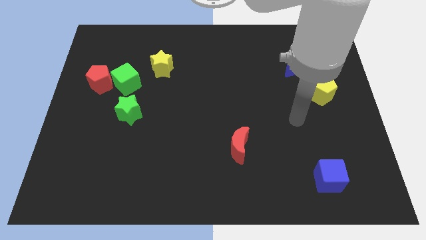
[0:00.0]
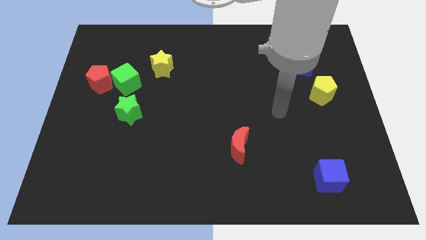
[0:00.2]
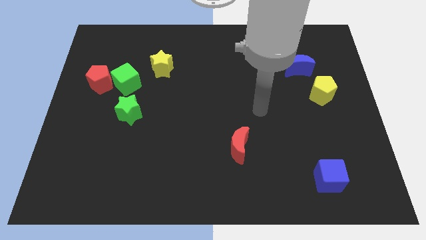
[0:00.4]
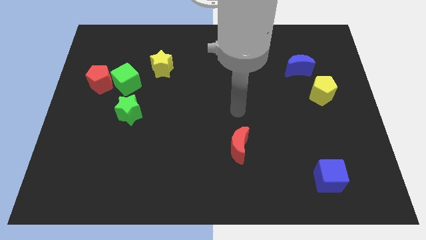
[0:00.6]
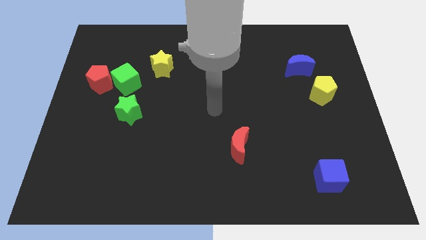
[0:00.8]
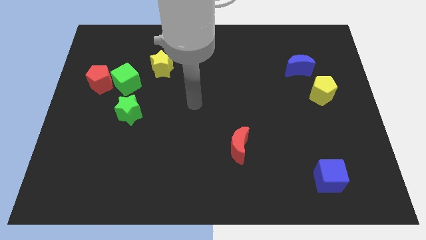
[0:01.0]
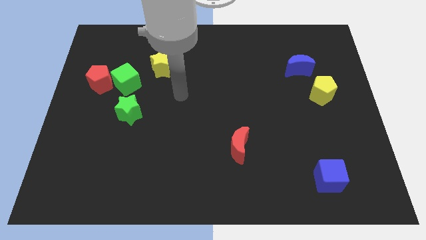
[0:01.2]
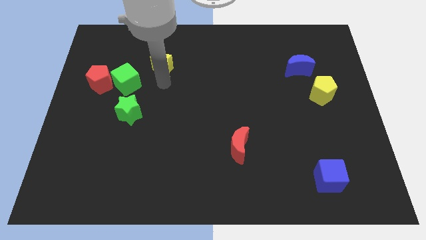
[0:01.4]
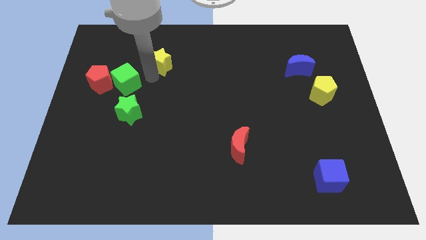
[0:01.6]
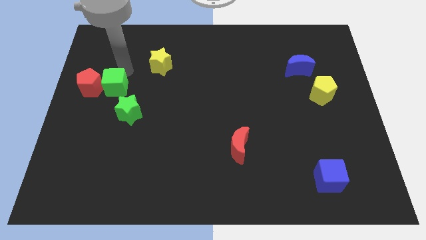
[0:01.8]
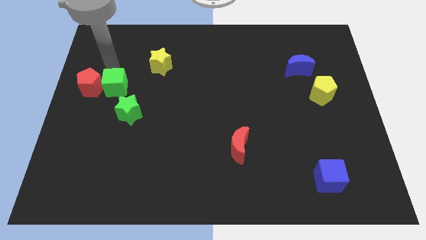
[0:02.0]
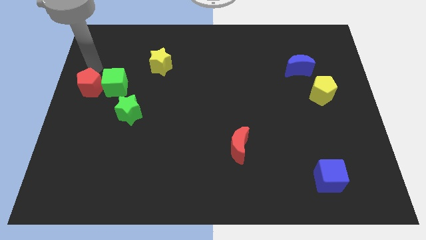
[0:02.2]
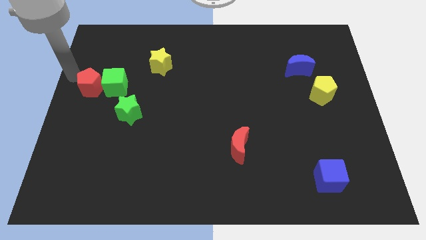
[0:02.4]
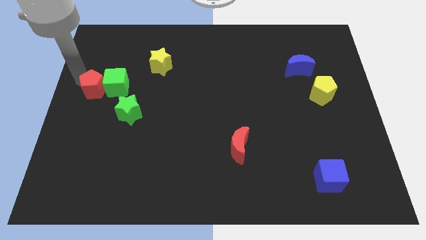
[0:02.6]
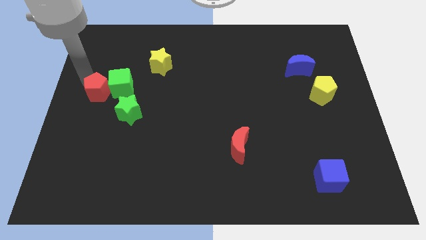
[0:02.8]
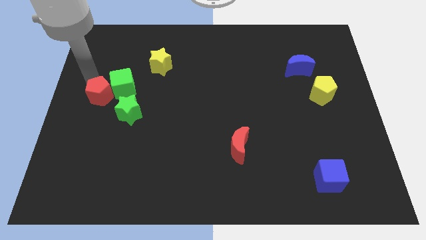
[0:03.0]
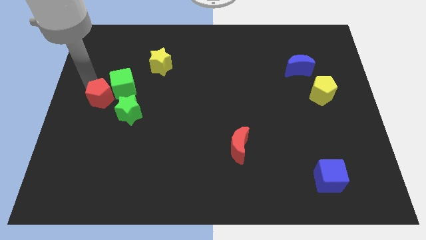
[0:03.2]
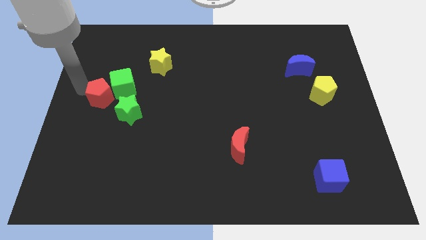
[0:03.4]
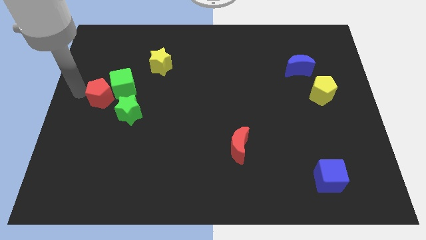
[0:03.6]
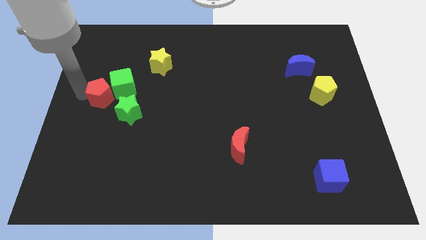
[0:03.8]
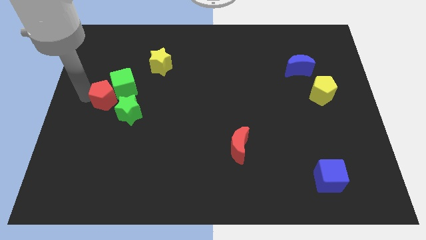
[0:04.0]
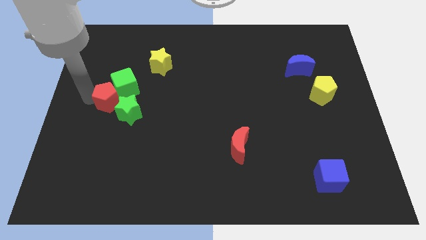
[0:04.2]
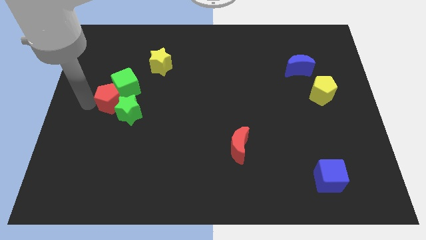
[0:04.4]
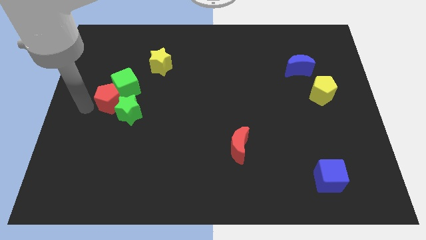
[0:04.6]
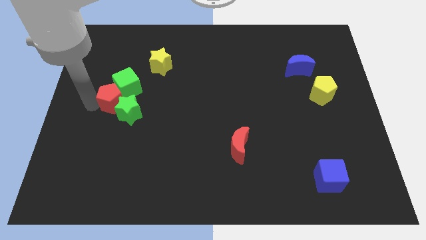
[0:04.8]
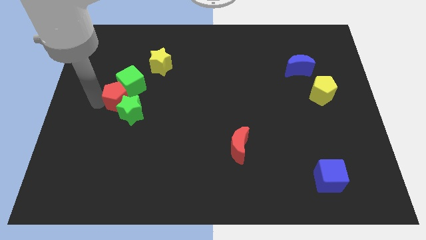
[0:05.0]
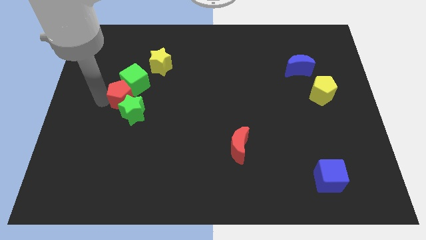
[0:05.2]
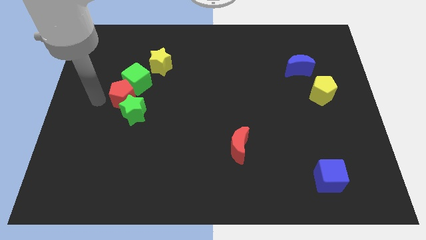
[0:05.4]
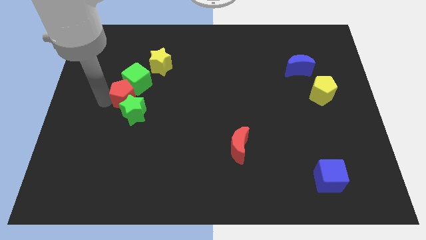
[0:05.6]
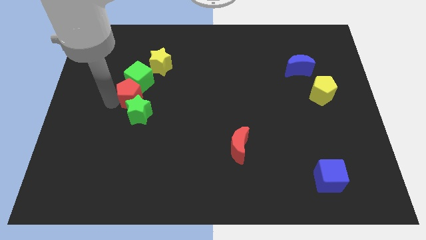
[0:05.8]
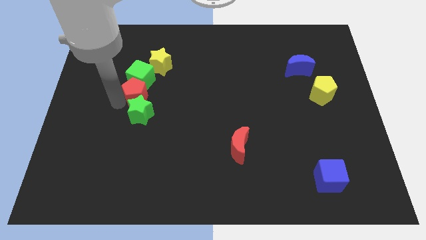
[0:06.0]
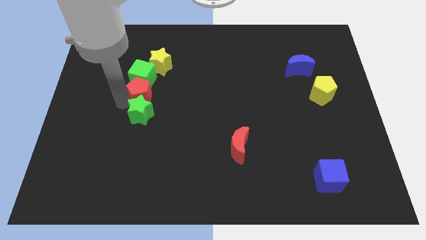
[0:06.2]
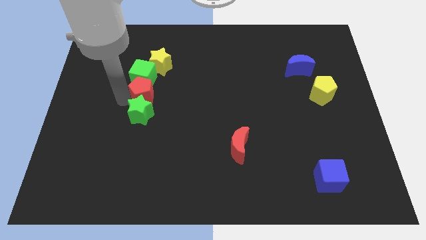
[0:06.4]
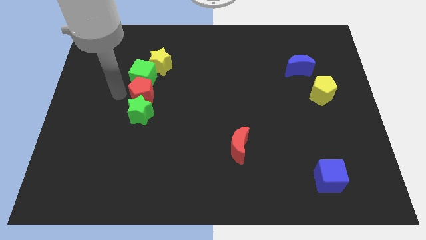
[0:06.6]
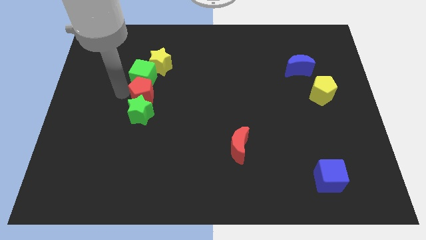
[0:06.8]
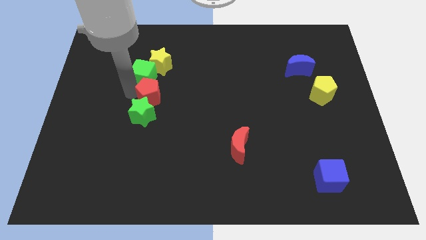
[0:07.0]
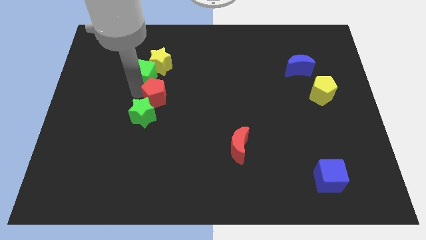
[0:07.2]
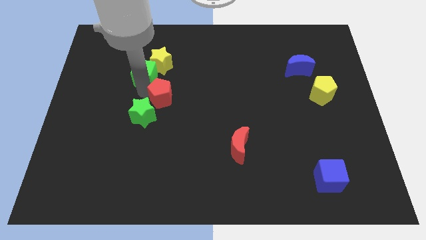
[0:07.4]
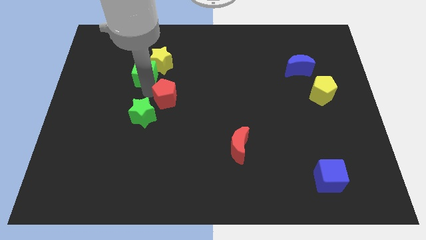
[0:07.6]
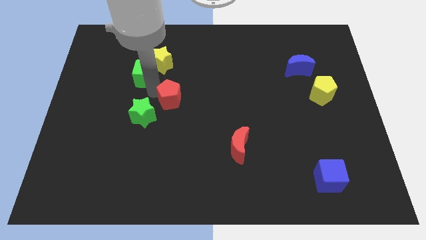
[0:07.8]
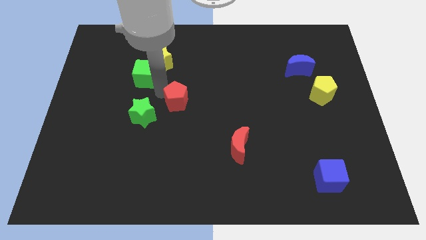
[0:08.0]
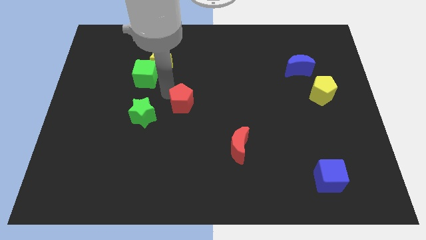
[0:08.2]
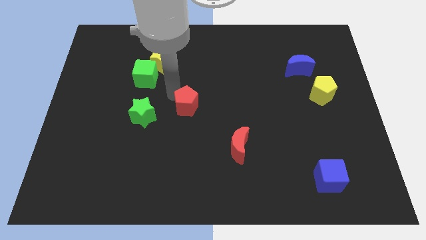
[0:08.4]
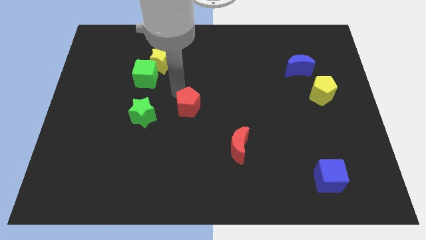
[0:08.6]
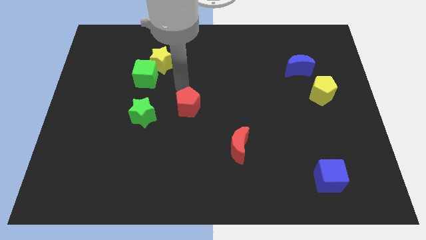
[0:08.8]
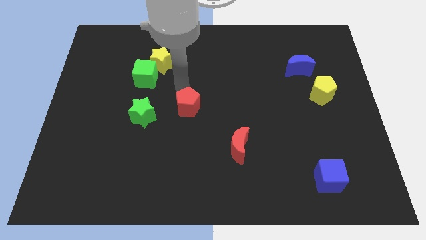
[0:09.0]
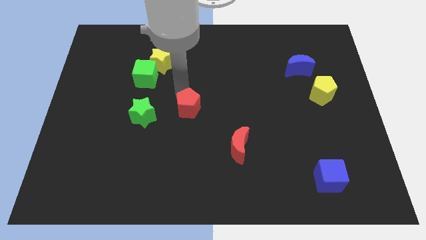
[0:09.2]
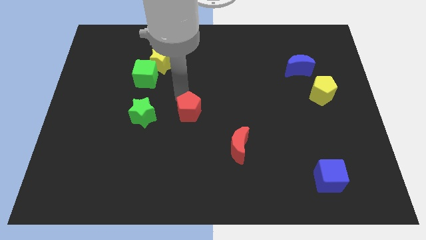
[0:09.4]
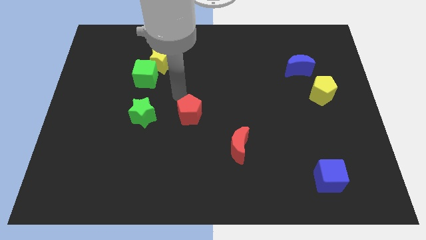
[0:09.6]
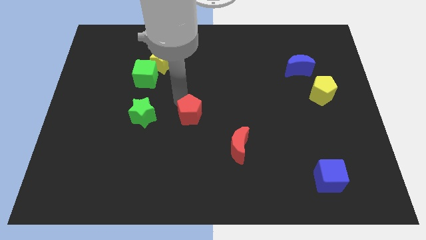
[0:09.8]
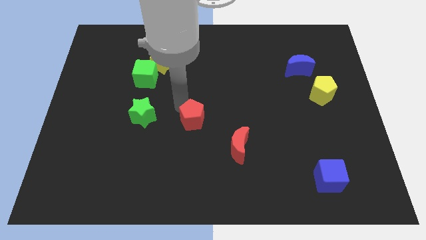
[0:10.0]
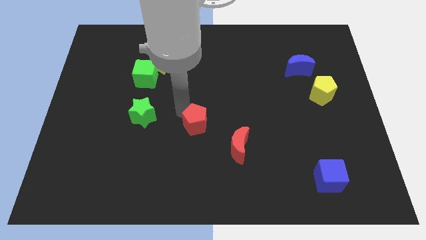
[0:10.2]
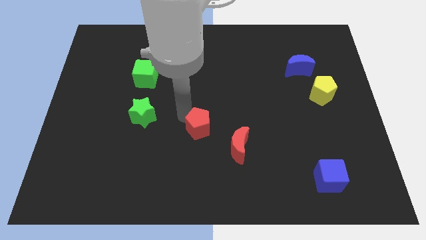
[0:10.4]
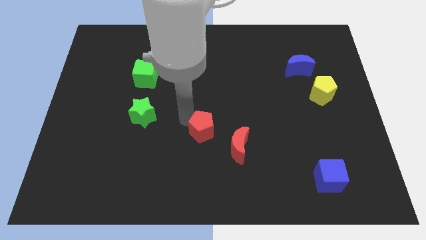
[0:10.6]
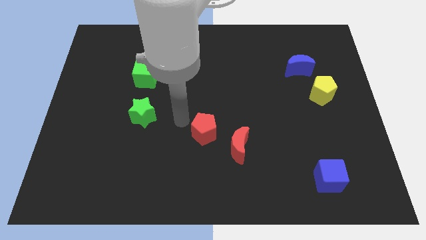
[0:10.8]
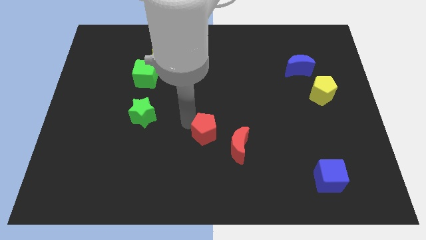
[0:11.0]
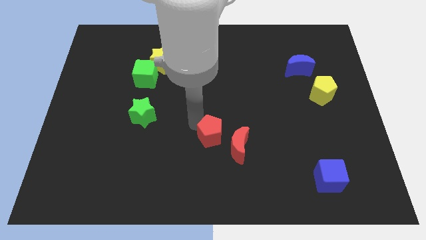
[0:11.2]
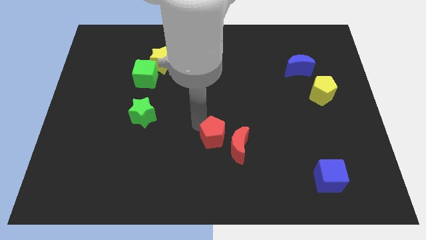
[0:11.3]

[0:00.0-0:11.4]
push the red pentagon to the red moon

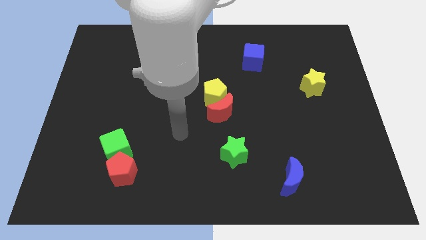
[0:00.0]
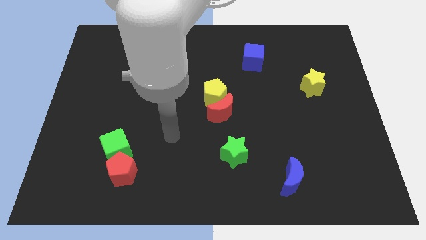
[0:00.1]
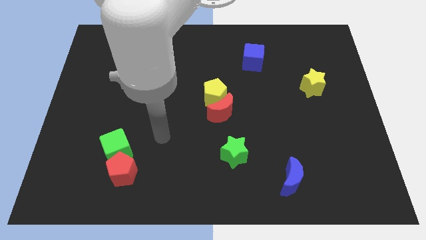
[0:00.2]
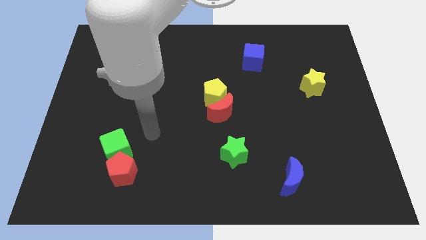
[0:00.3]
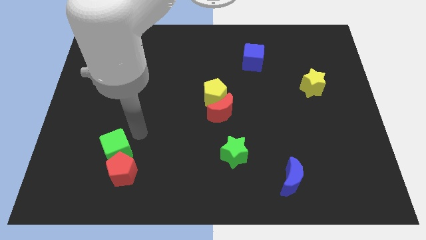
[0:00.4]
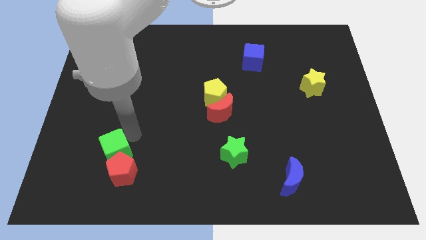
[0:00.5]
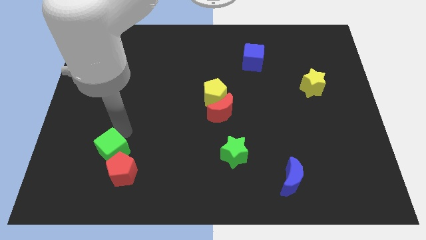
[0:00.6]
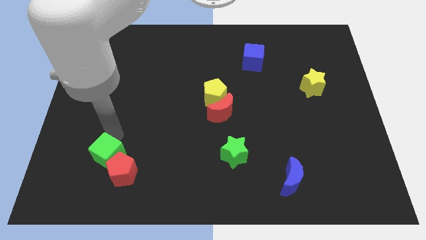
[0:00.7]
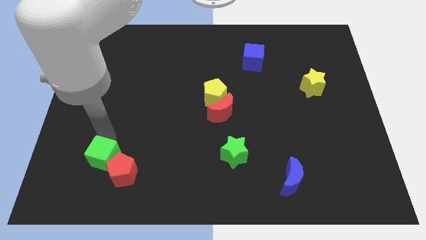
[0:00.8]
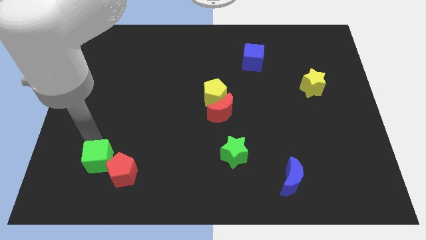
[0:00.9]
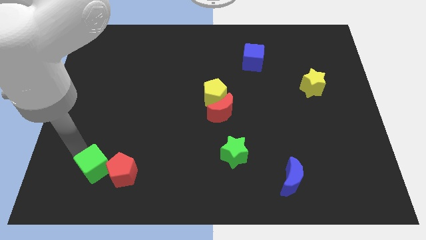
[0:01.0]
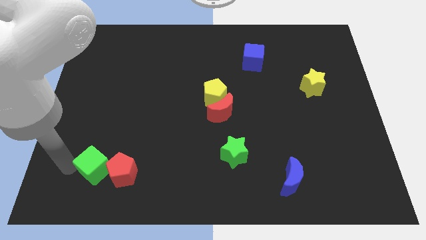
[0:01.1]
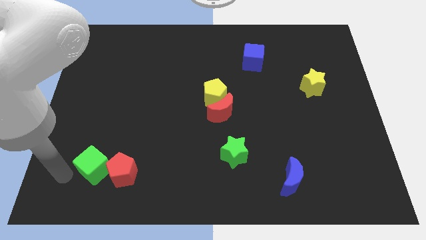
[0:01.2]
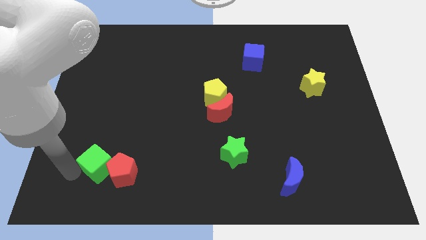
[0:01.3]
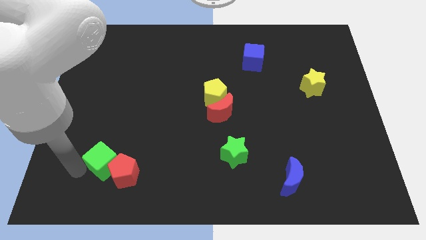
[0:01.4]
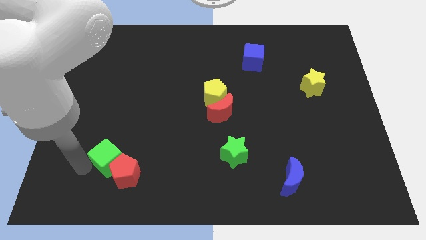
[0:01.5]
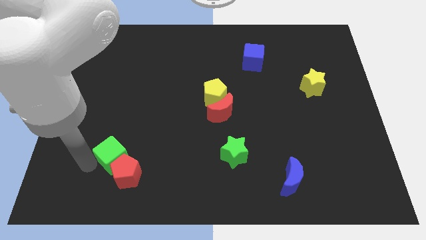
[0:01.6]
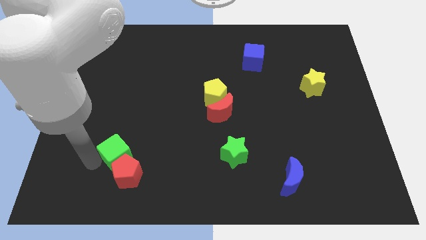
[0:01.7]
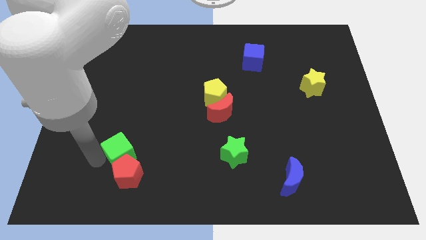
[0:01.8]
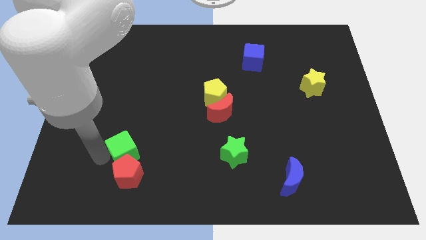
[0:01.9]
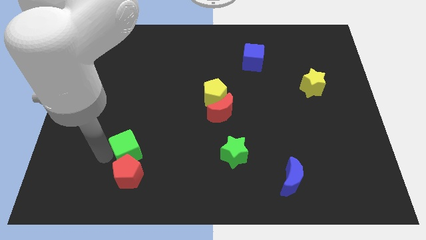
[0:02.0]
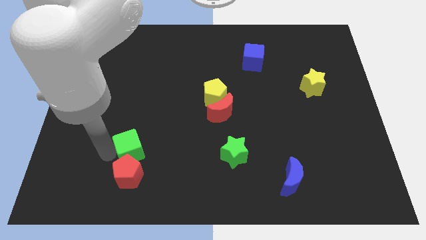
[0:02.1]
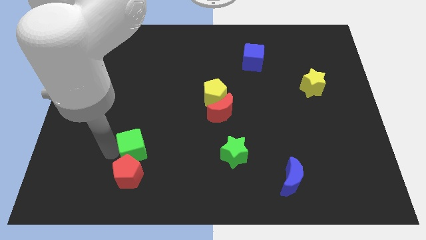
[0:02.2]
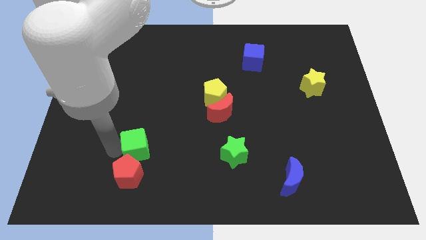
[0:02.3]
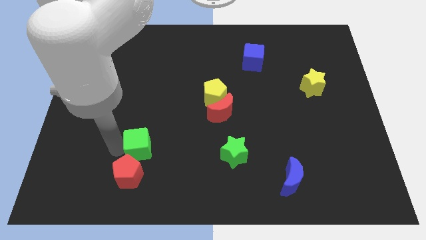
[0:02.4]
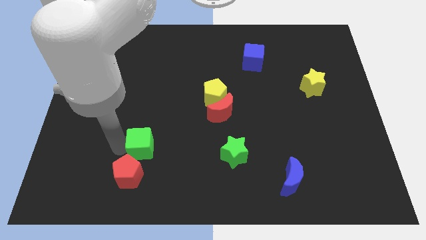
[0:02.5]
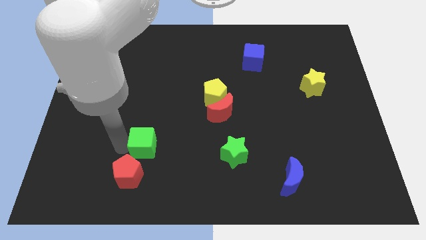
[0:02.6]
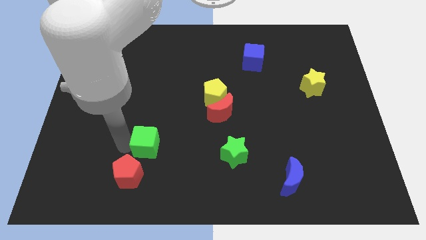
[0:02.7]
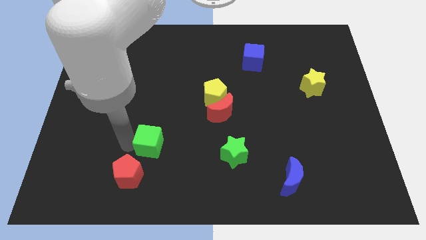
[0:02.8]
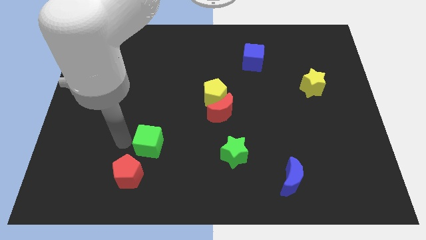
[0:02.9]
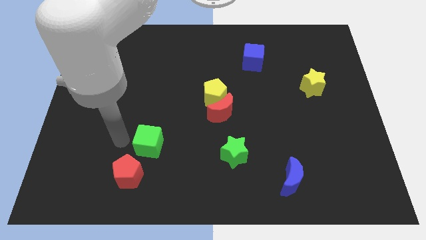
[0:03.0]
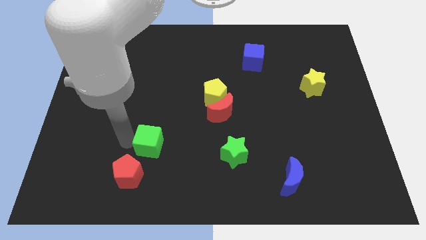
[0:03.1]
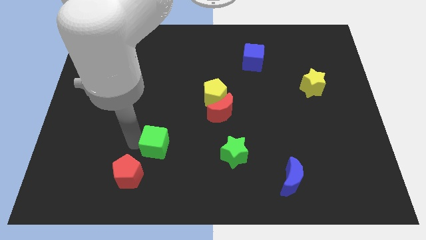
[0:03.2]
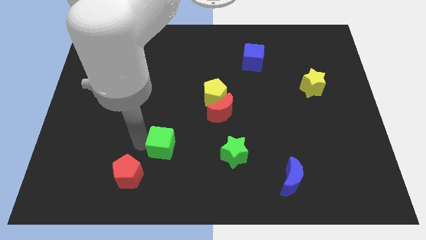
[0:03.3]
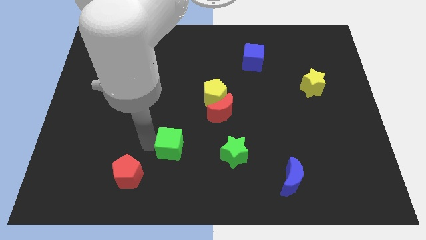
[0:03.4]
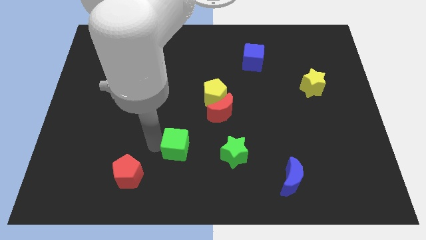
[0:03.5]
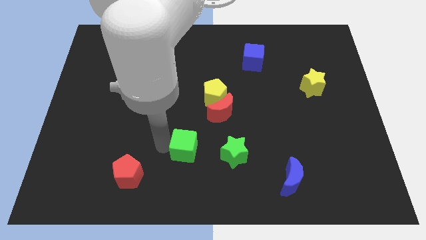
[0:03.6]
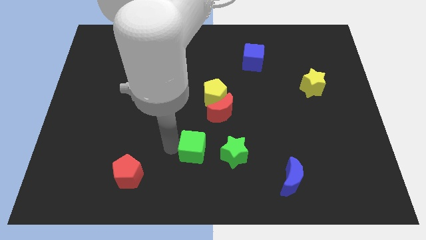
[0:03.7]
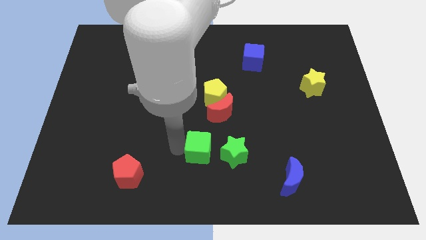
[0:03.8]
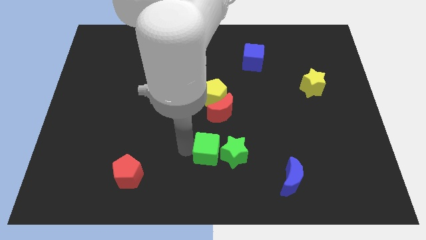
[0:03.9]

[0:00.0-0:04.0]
move the green cube towards the green star
